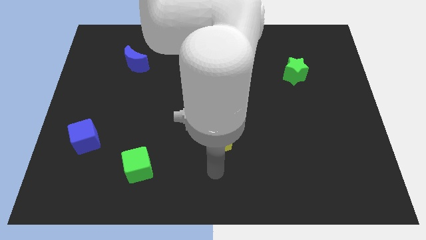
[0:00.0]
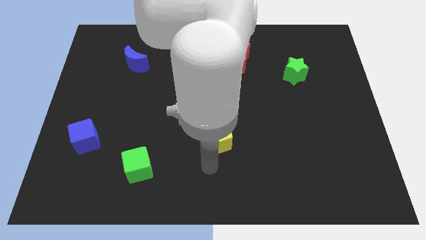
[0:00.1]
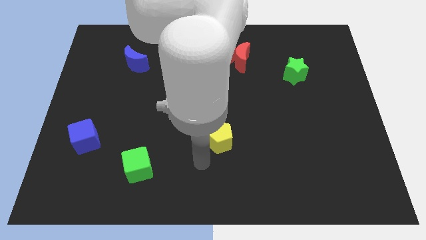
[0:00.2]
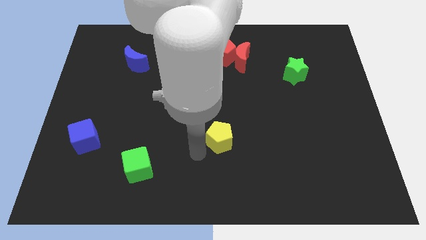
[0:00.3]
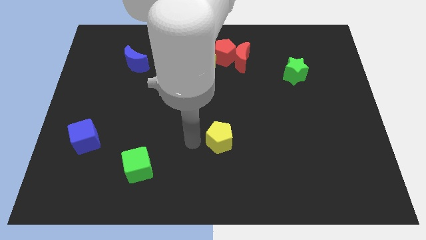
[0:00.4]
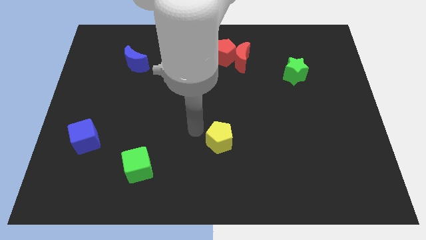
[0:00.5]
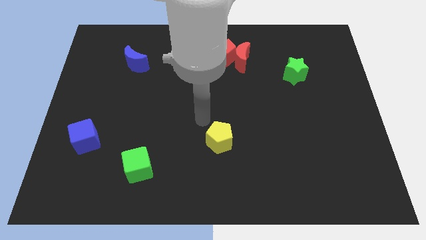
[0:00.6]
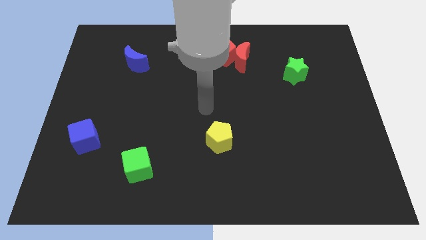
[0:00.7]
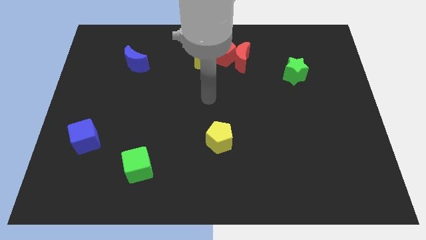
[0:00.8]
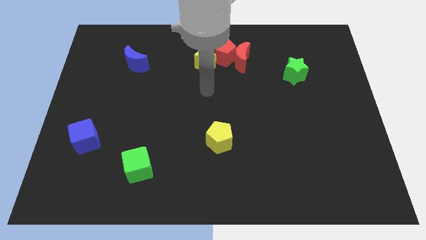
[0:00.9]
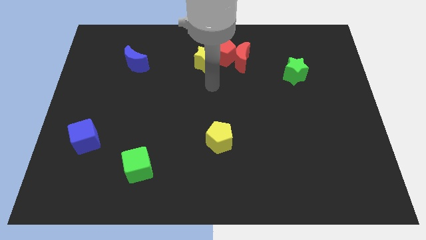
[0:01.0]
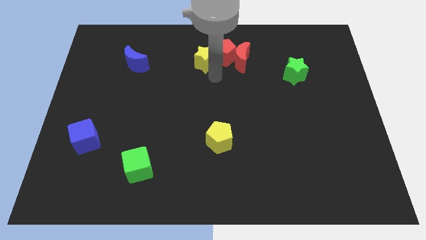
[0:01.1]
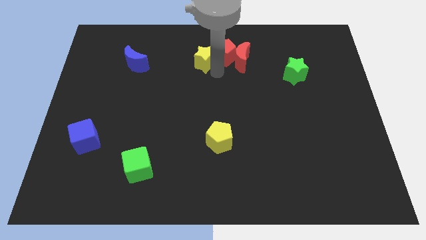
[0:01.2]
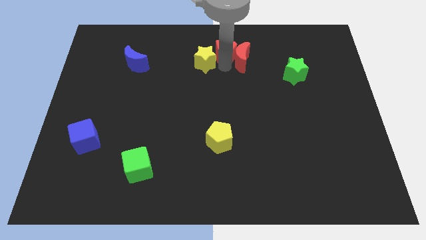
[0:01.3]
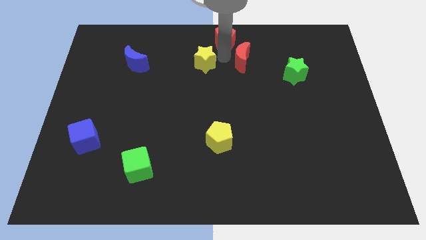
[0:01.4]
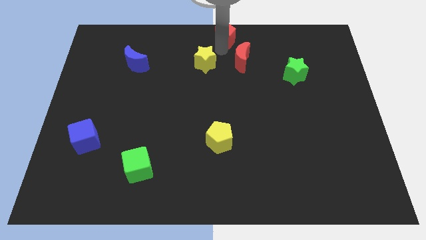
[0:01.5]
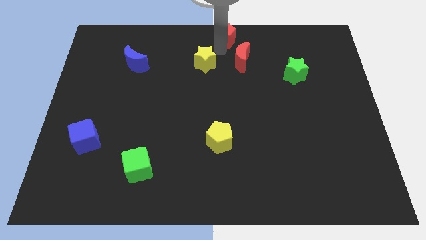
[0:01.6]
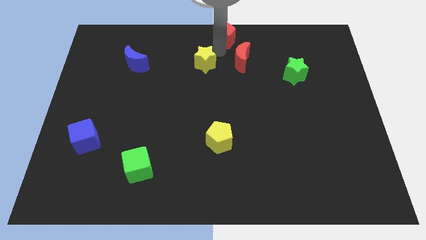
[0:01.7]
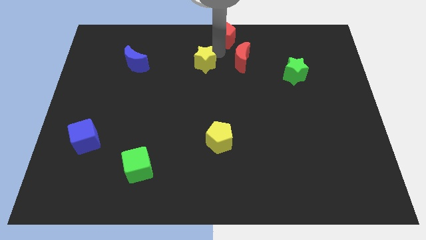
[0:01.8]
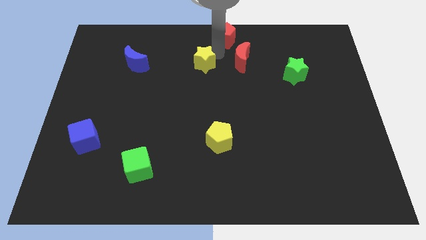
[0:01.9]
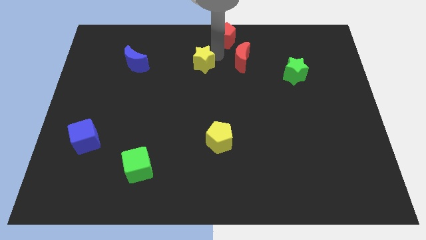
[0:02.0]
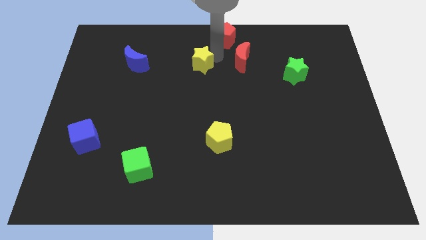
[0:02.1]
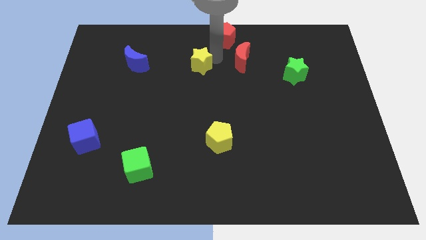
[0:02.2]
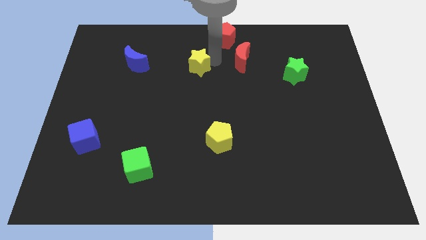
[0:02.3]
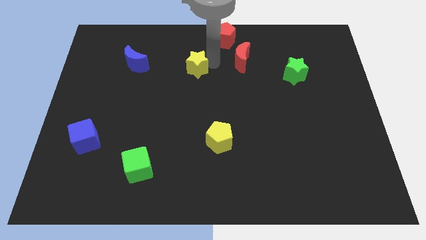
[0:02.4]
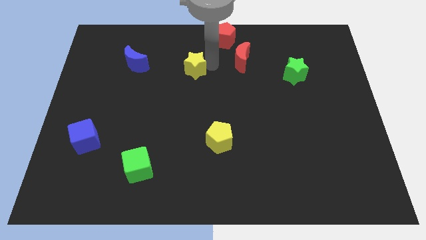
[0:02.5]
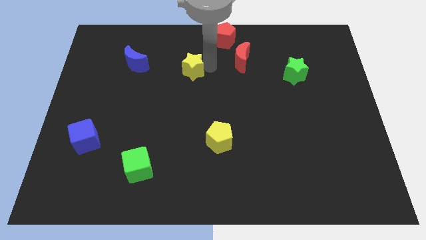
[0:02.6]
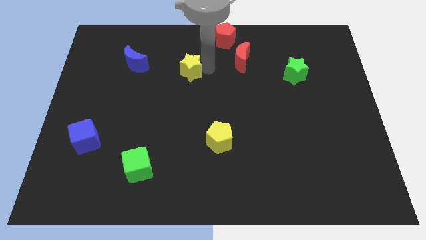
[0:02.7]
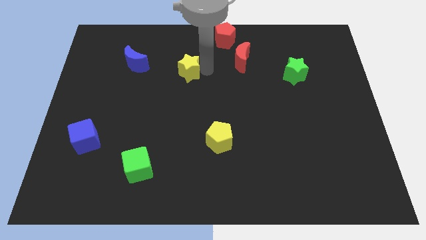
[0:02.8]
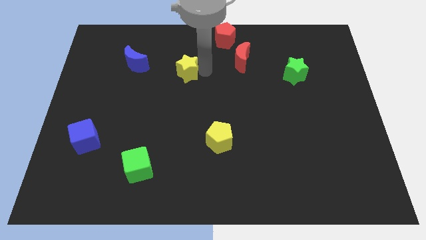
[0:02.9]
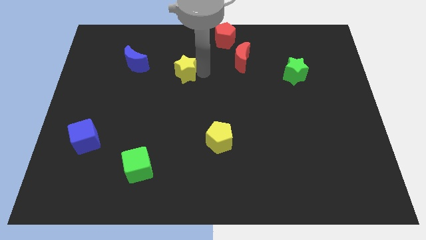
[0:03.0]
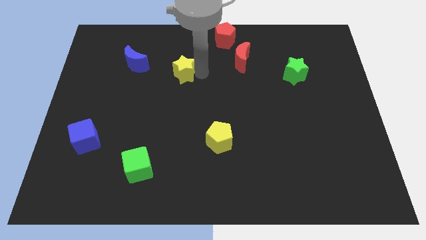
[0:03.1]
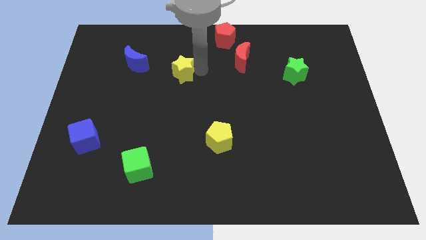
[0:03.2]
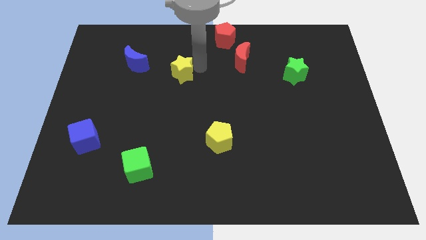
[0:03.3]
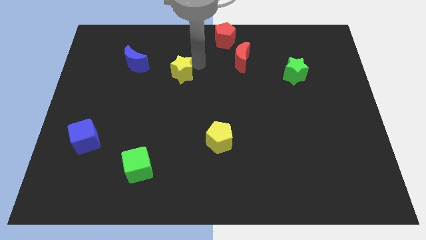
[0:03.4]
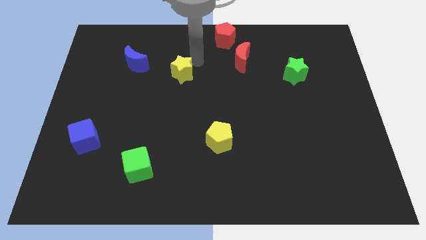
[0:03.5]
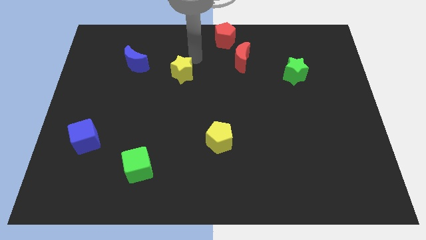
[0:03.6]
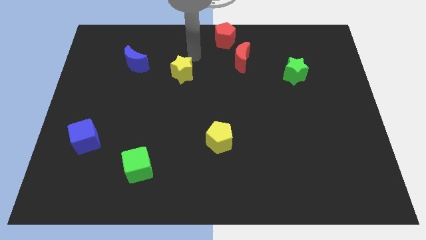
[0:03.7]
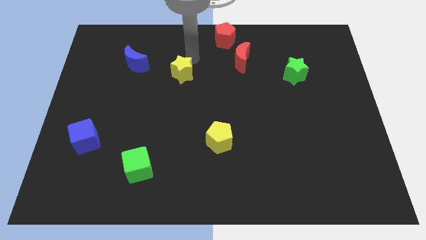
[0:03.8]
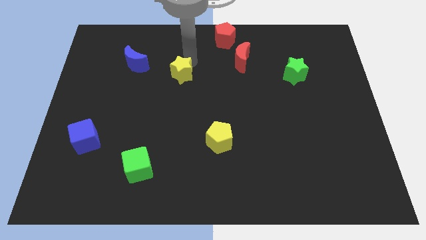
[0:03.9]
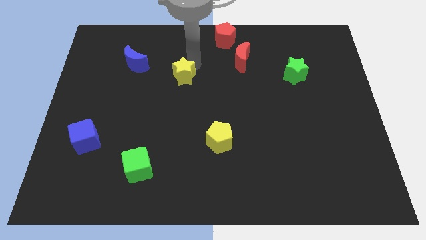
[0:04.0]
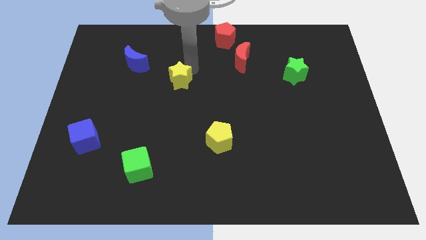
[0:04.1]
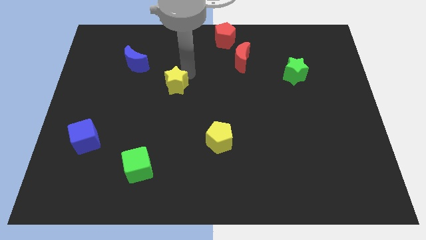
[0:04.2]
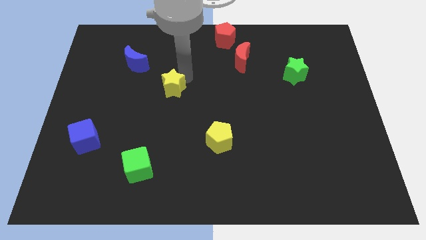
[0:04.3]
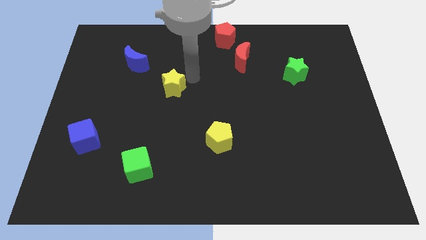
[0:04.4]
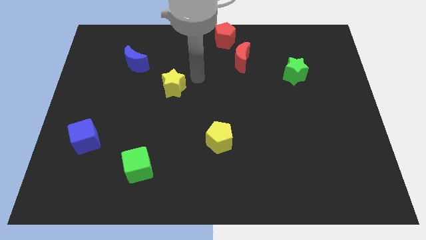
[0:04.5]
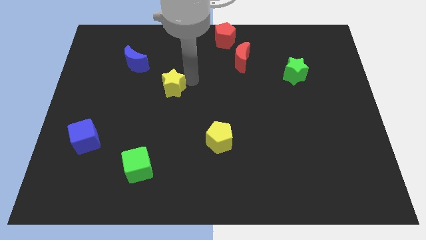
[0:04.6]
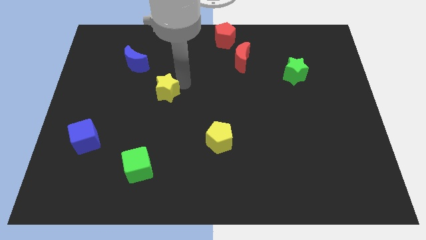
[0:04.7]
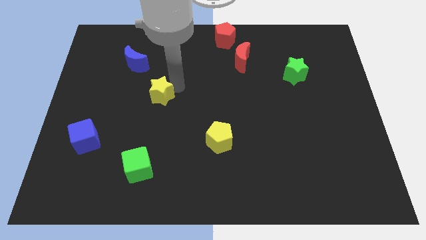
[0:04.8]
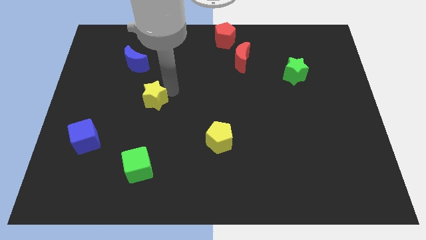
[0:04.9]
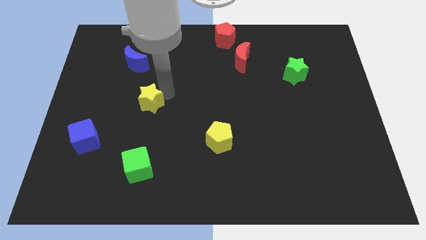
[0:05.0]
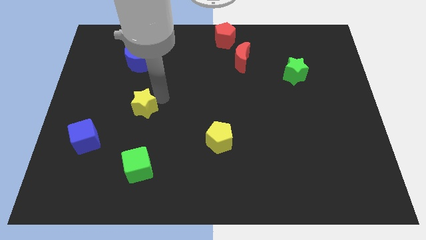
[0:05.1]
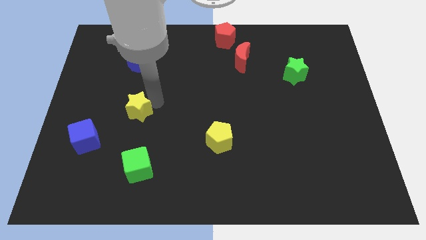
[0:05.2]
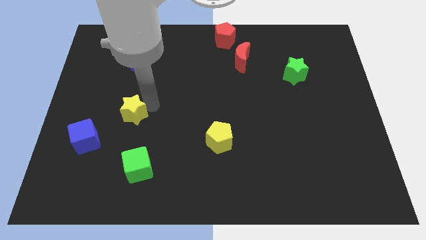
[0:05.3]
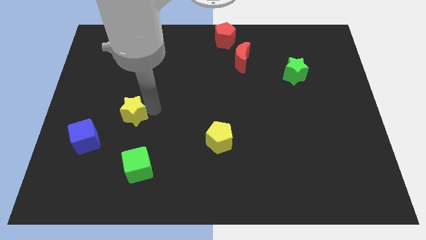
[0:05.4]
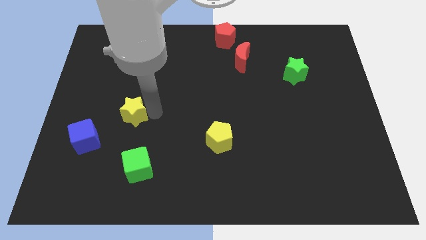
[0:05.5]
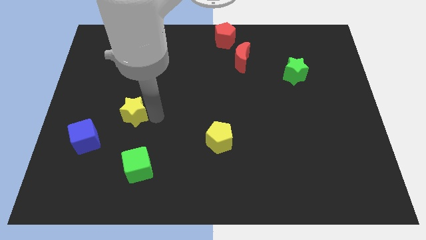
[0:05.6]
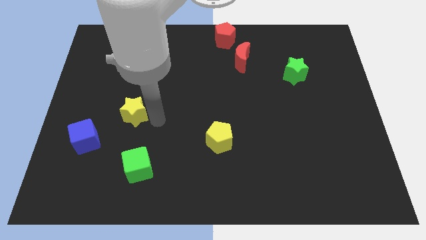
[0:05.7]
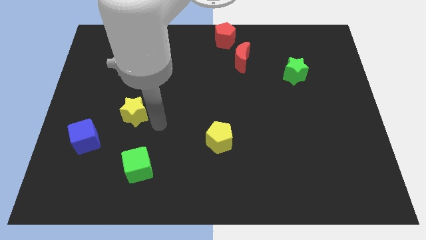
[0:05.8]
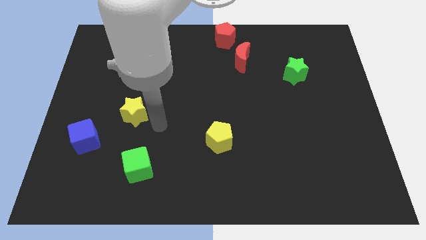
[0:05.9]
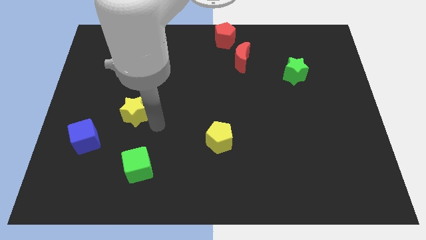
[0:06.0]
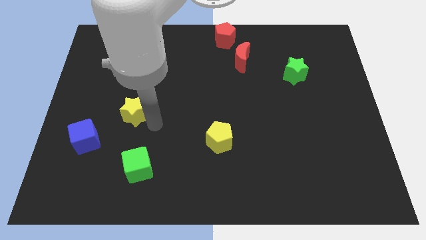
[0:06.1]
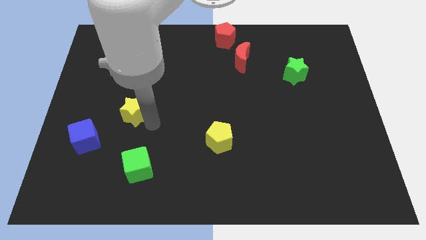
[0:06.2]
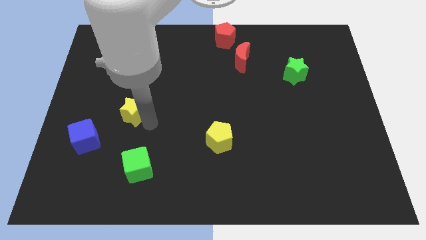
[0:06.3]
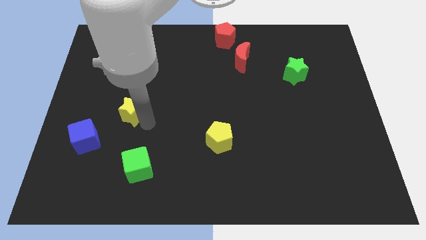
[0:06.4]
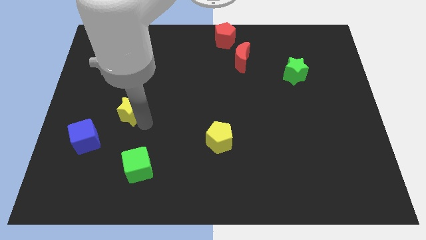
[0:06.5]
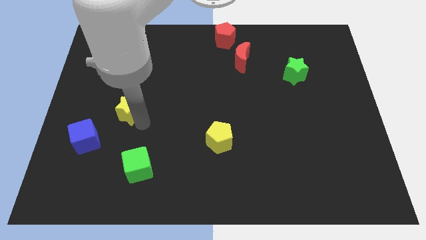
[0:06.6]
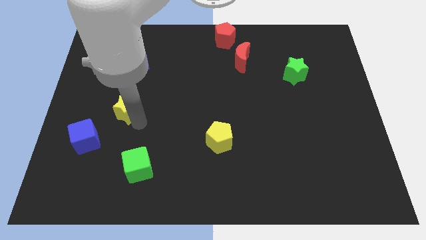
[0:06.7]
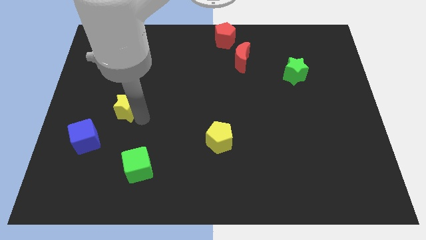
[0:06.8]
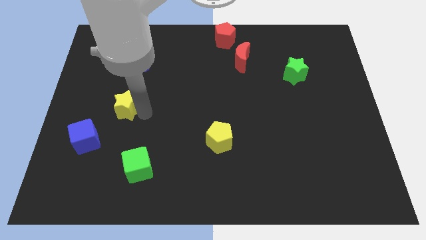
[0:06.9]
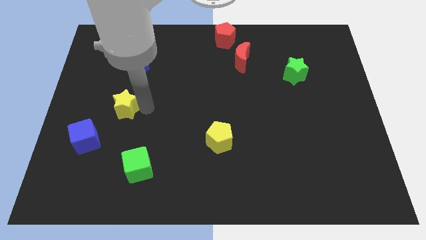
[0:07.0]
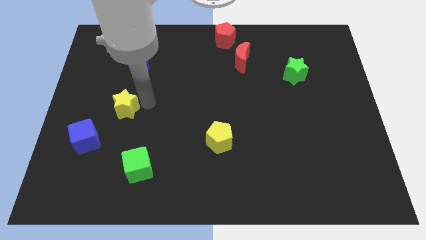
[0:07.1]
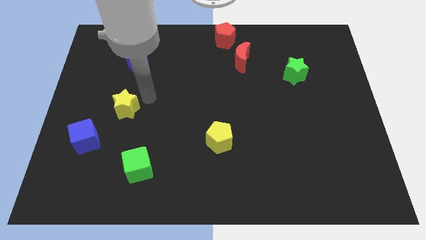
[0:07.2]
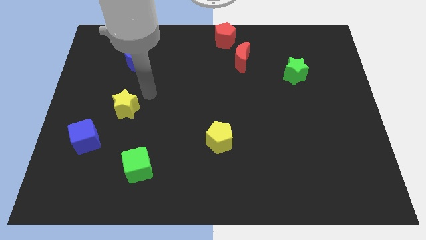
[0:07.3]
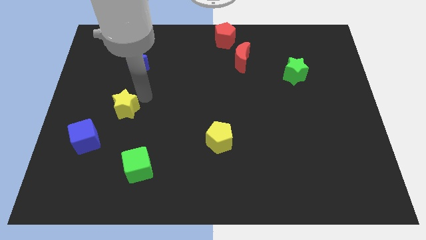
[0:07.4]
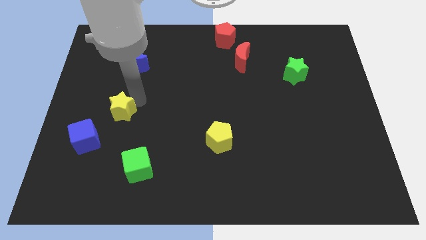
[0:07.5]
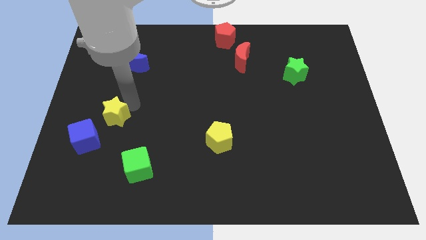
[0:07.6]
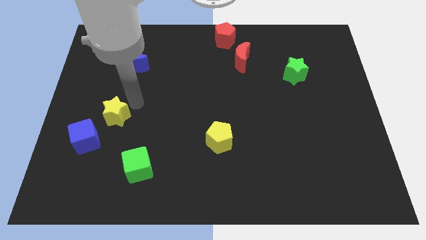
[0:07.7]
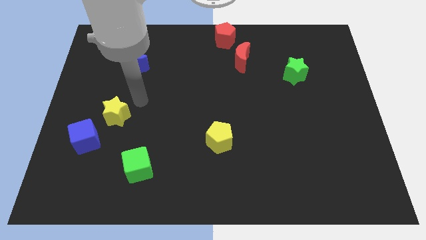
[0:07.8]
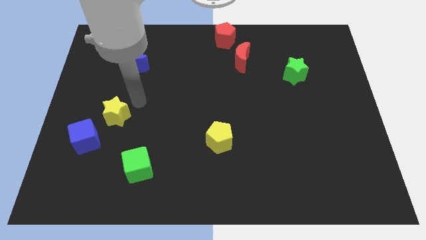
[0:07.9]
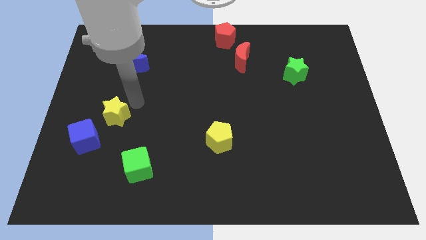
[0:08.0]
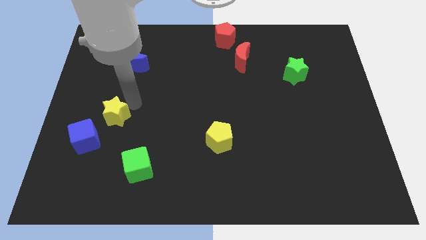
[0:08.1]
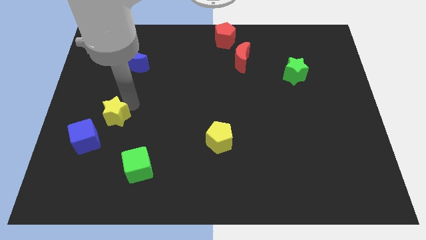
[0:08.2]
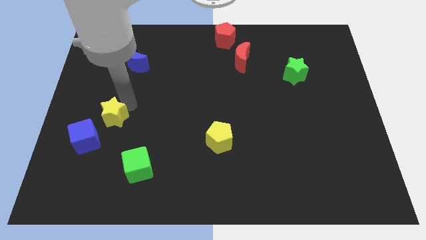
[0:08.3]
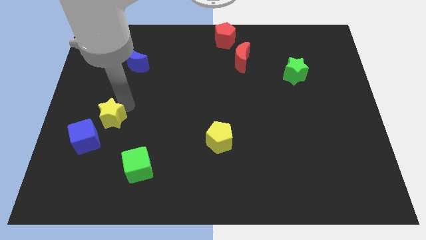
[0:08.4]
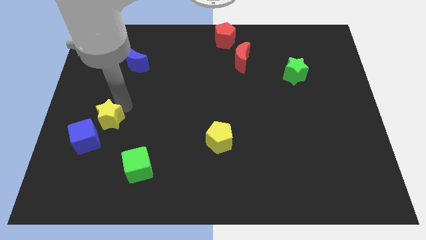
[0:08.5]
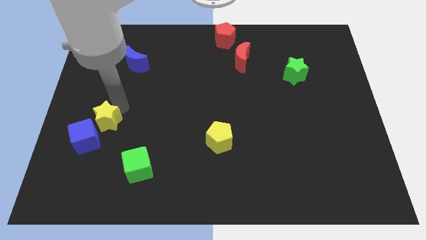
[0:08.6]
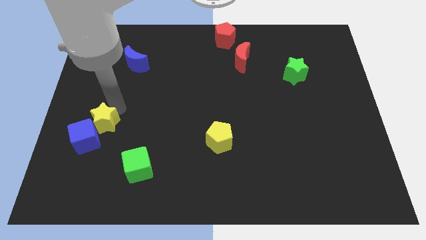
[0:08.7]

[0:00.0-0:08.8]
push the yellow star to the blue cube
